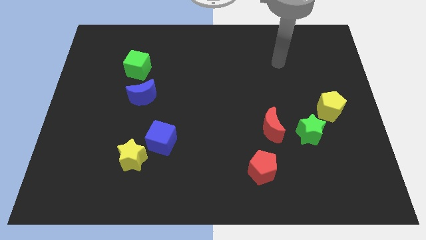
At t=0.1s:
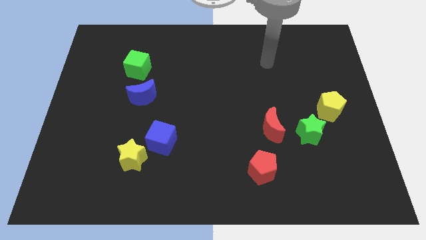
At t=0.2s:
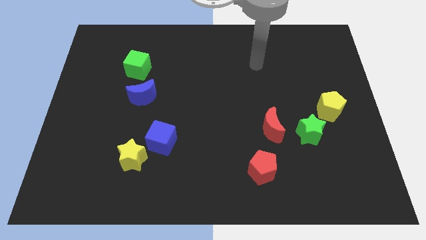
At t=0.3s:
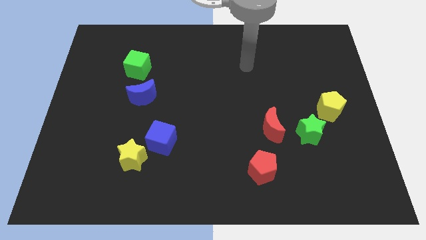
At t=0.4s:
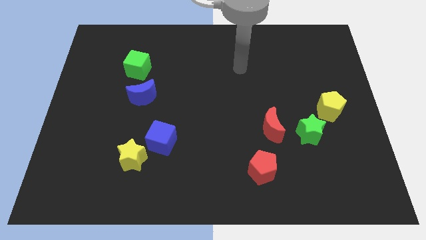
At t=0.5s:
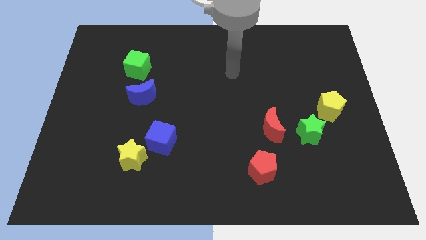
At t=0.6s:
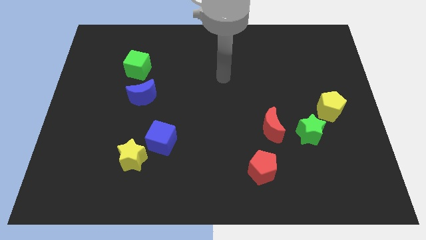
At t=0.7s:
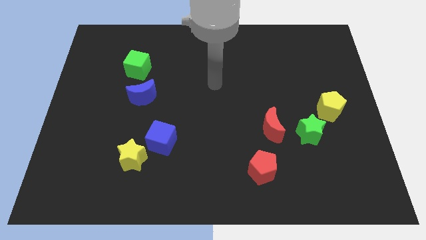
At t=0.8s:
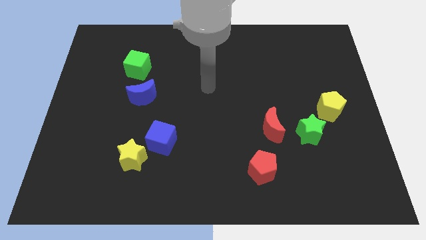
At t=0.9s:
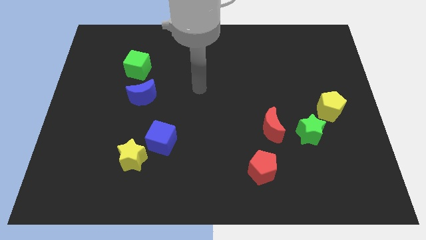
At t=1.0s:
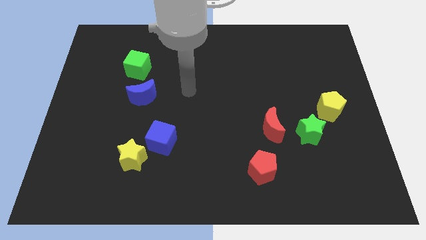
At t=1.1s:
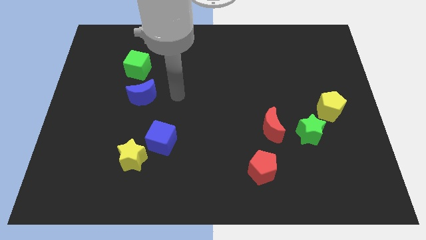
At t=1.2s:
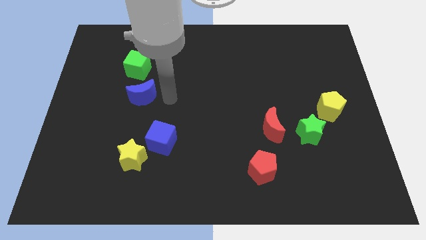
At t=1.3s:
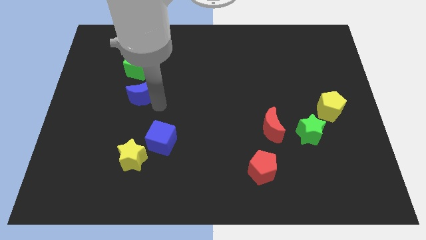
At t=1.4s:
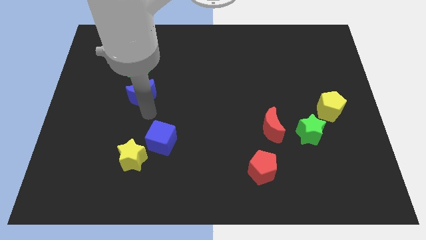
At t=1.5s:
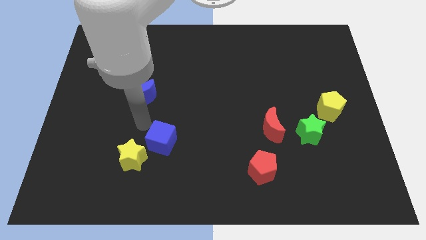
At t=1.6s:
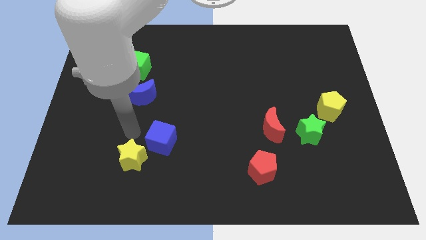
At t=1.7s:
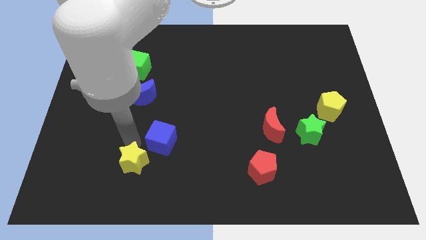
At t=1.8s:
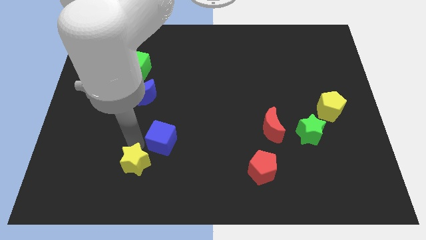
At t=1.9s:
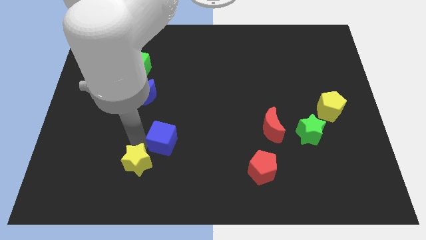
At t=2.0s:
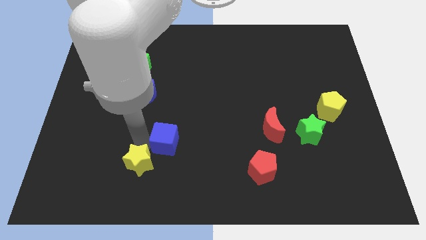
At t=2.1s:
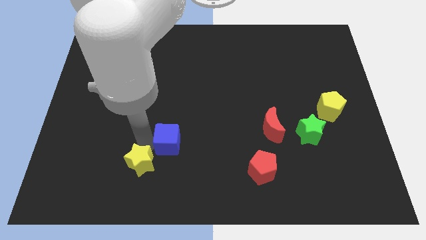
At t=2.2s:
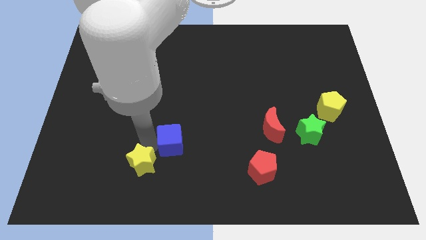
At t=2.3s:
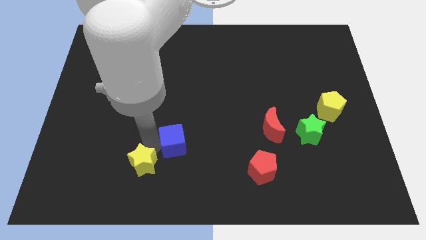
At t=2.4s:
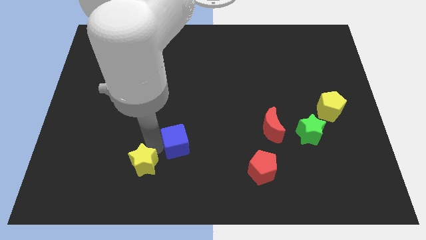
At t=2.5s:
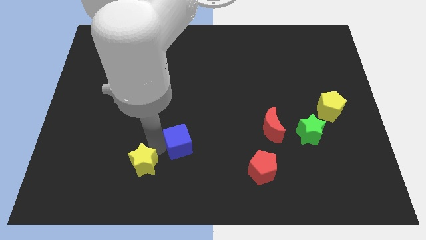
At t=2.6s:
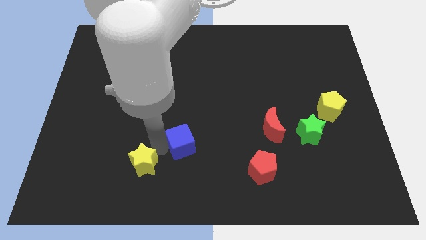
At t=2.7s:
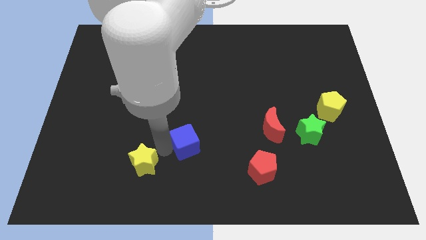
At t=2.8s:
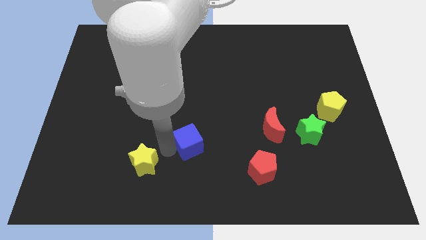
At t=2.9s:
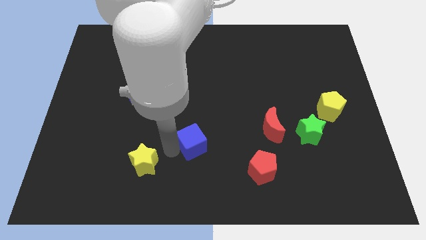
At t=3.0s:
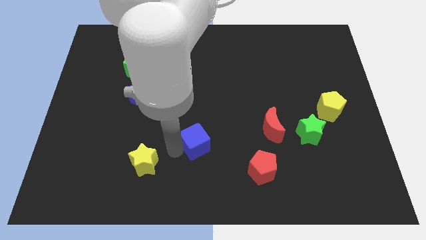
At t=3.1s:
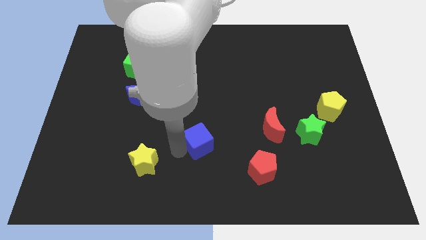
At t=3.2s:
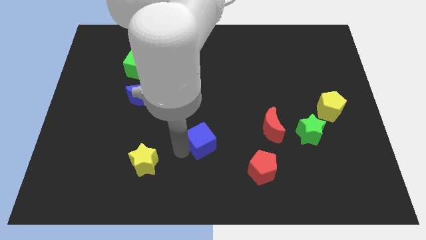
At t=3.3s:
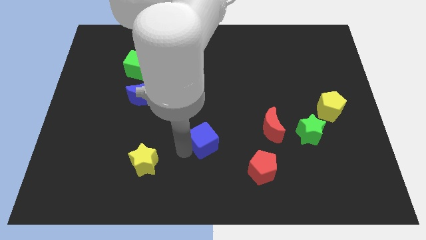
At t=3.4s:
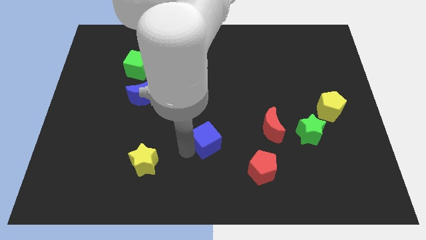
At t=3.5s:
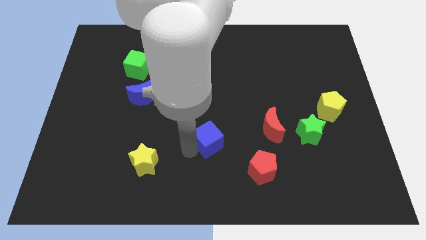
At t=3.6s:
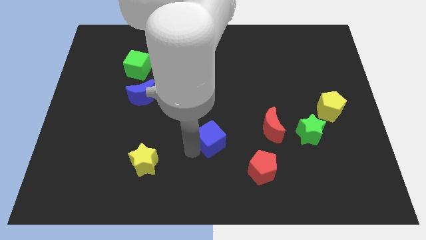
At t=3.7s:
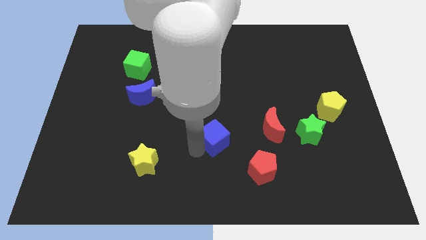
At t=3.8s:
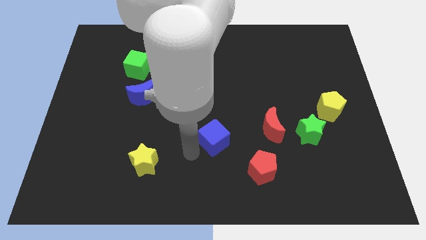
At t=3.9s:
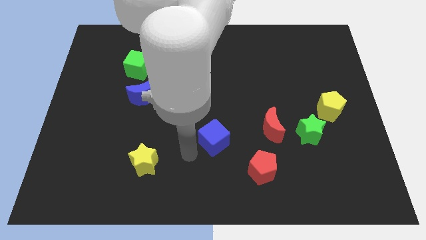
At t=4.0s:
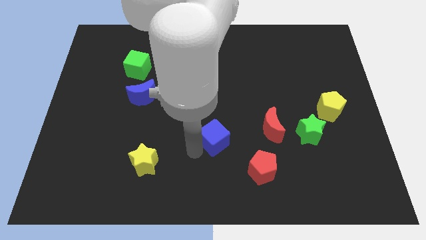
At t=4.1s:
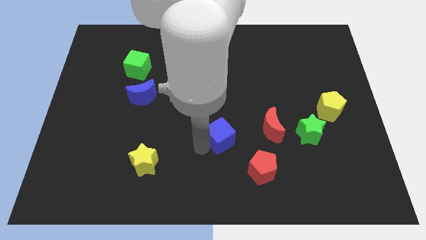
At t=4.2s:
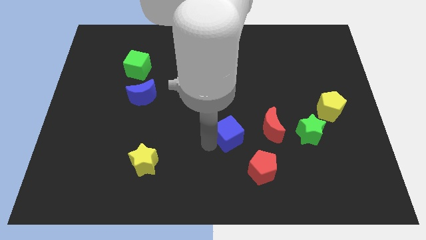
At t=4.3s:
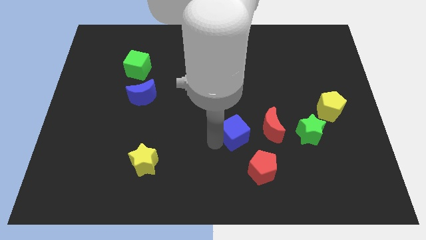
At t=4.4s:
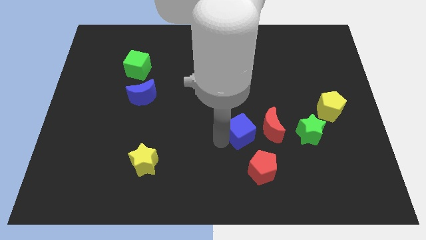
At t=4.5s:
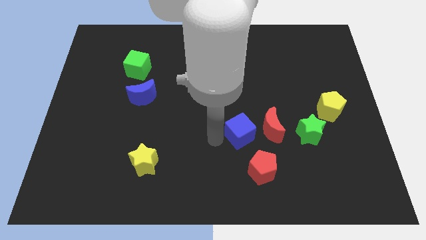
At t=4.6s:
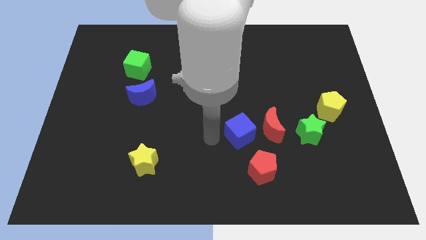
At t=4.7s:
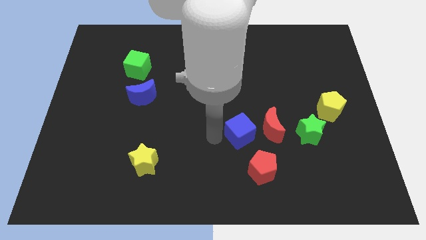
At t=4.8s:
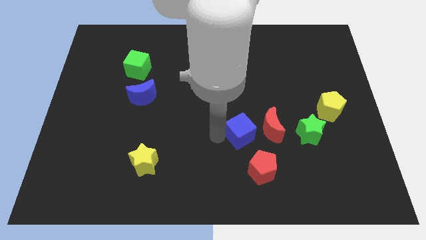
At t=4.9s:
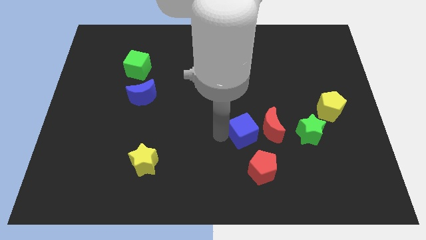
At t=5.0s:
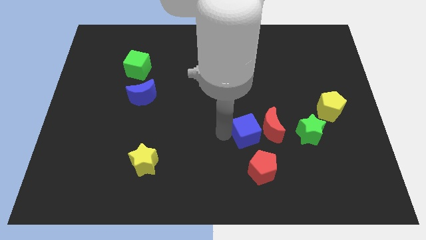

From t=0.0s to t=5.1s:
slide the blue cube next to the red moon

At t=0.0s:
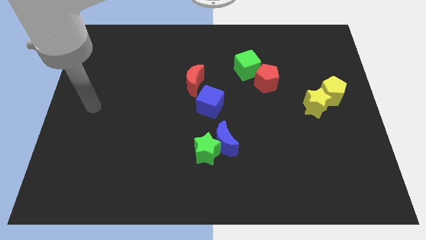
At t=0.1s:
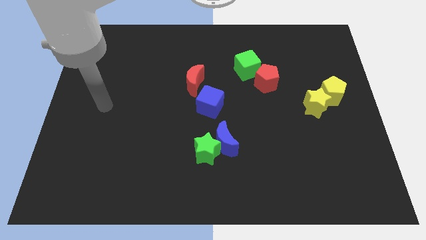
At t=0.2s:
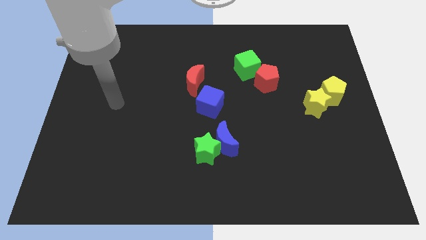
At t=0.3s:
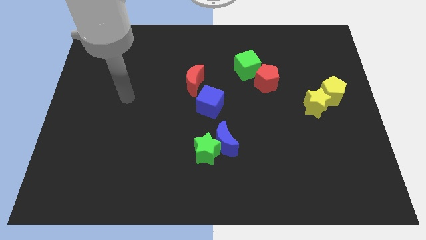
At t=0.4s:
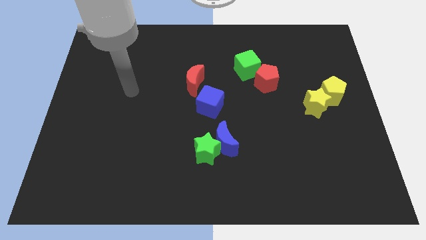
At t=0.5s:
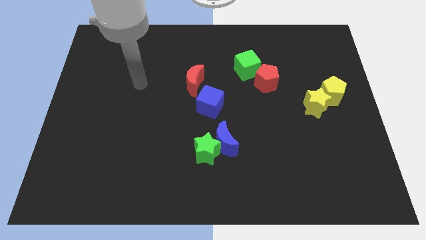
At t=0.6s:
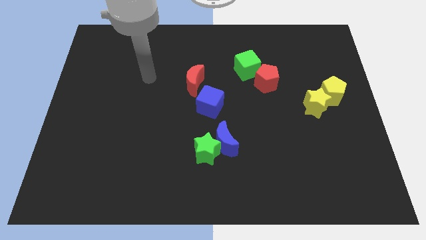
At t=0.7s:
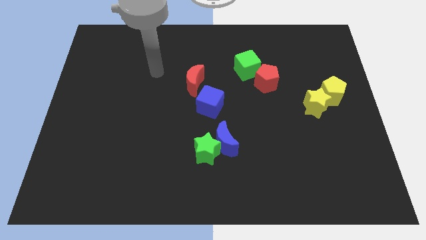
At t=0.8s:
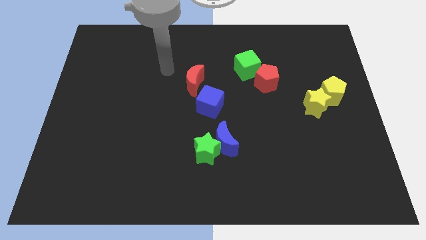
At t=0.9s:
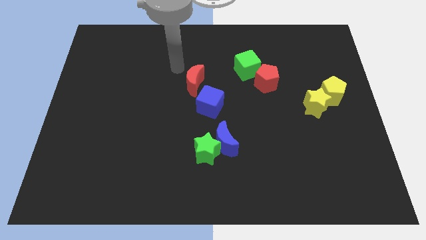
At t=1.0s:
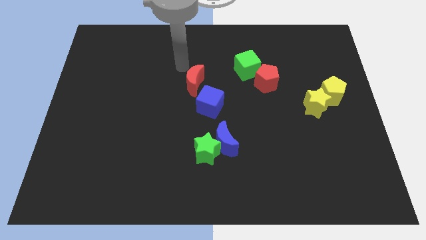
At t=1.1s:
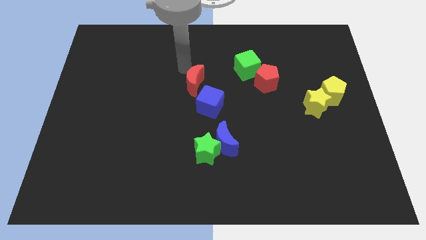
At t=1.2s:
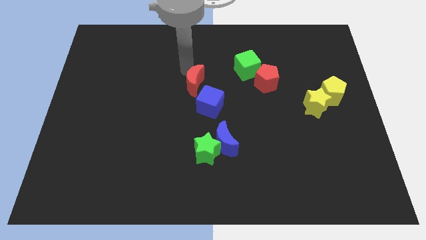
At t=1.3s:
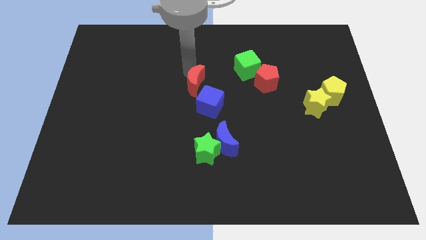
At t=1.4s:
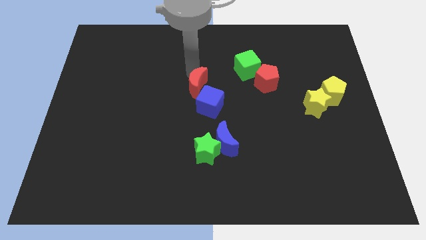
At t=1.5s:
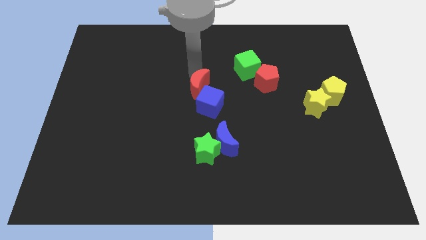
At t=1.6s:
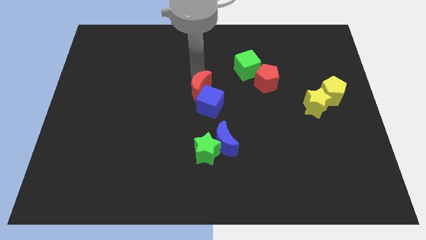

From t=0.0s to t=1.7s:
push the red moon close to the blue cube

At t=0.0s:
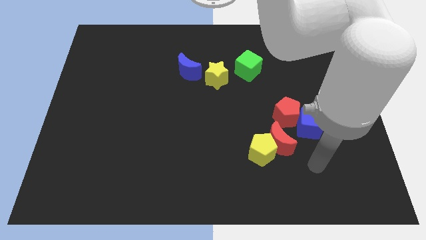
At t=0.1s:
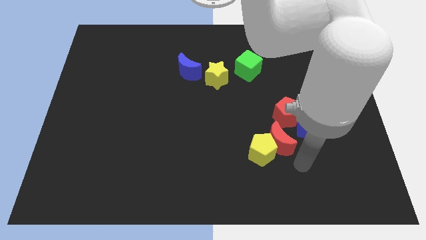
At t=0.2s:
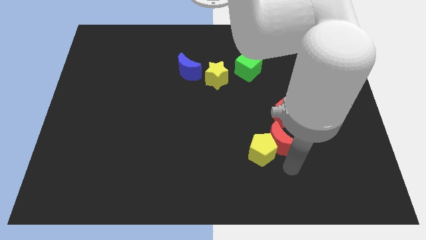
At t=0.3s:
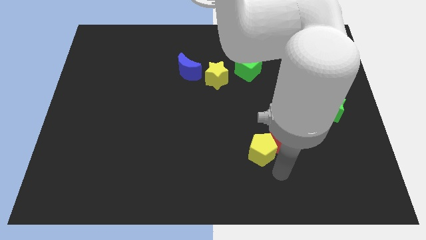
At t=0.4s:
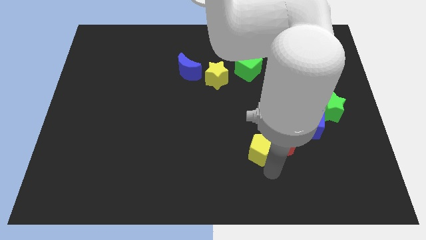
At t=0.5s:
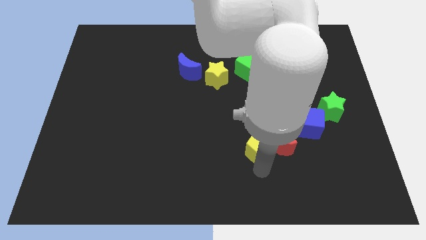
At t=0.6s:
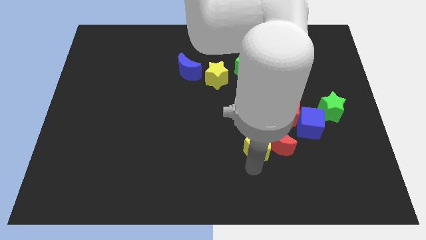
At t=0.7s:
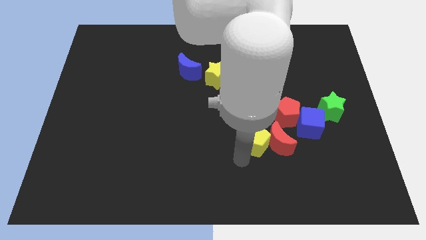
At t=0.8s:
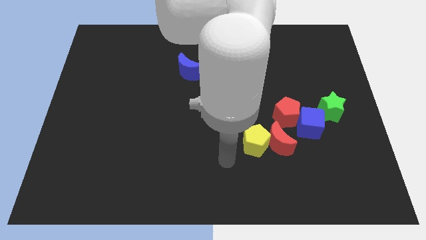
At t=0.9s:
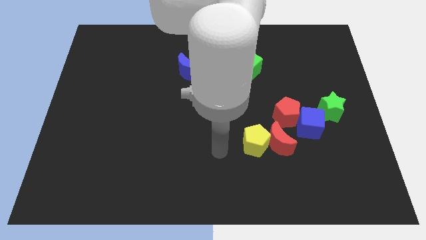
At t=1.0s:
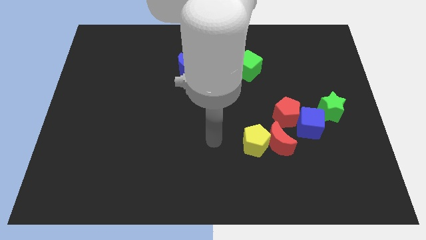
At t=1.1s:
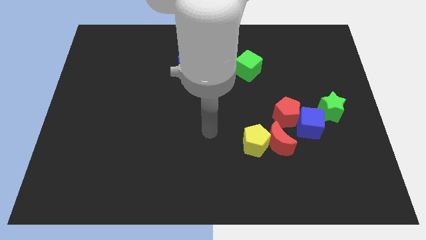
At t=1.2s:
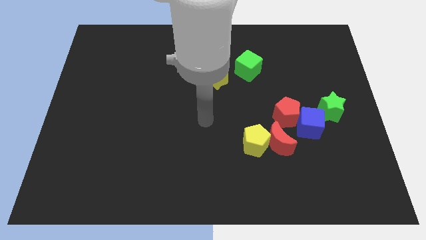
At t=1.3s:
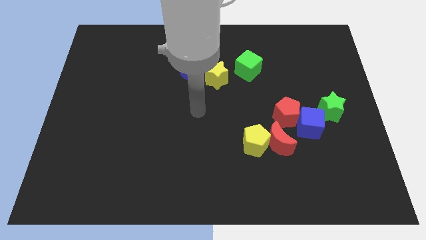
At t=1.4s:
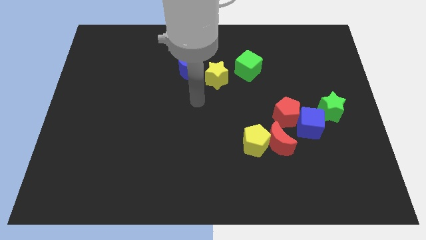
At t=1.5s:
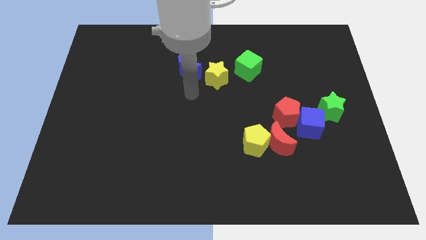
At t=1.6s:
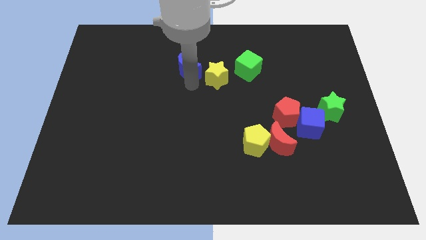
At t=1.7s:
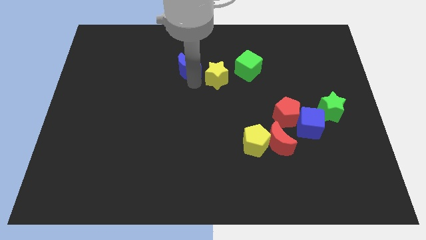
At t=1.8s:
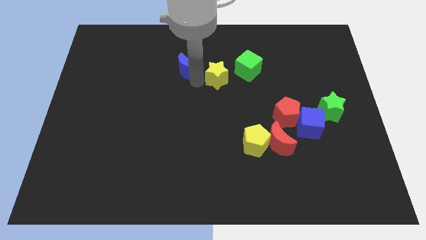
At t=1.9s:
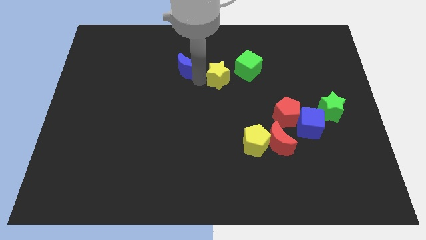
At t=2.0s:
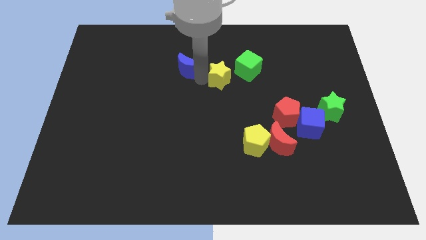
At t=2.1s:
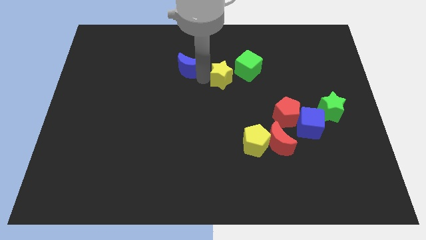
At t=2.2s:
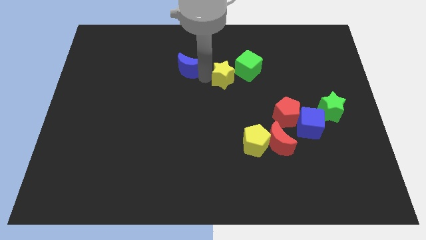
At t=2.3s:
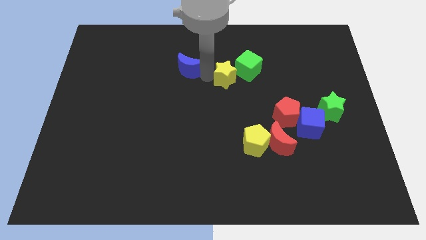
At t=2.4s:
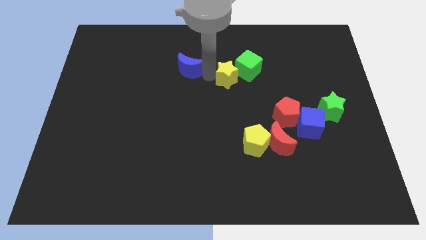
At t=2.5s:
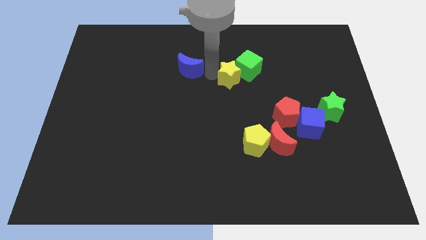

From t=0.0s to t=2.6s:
move the yellow star to the green cube
